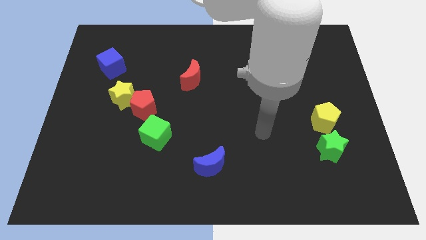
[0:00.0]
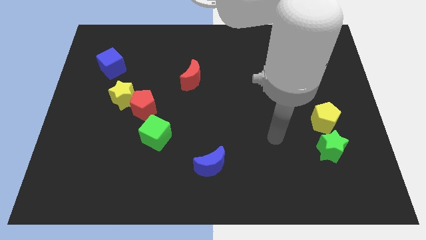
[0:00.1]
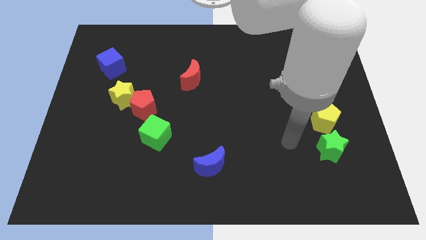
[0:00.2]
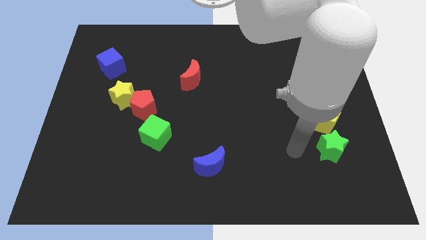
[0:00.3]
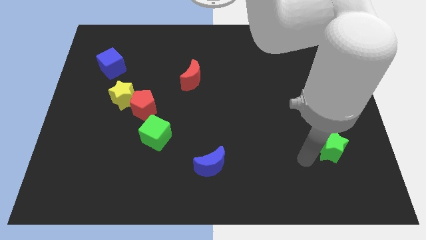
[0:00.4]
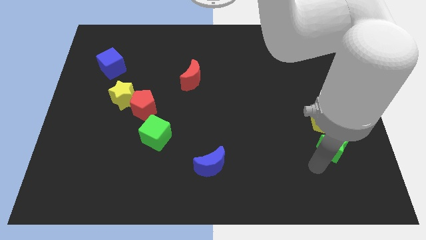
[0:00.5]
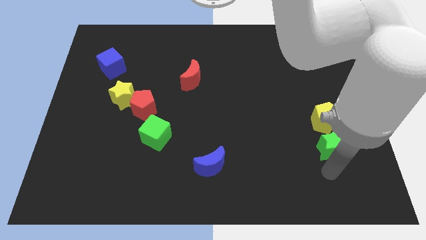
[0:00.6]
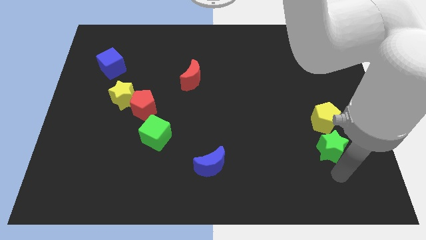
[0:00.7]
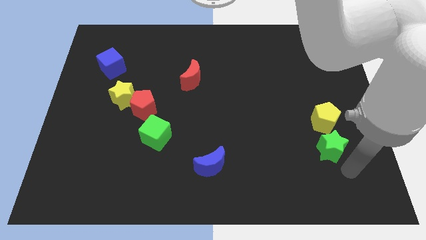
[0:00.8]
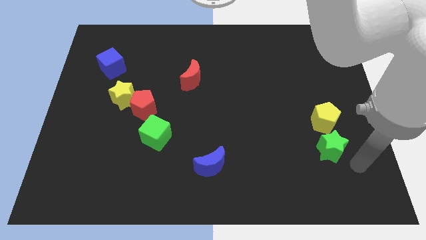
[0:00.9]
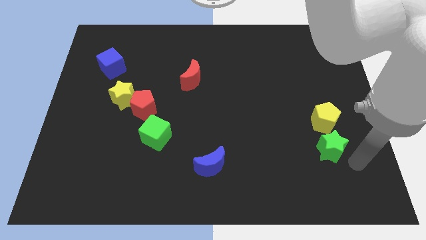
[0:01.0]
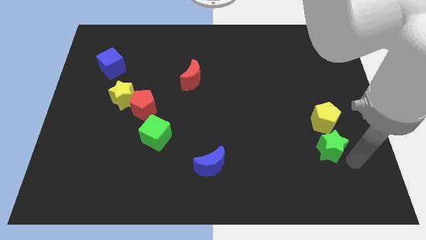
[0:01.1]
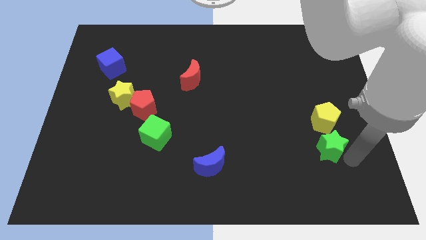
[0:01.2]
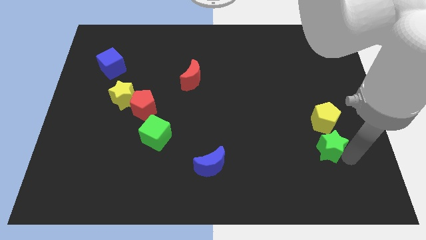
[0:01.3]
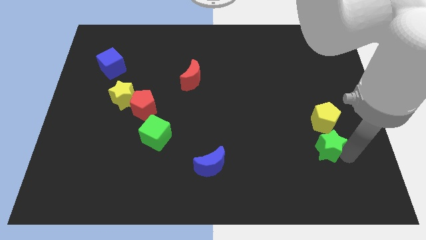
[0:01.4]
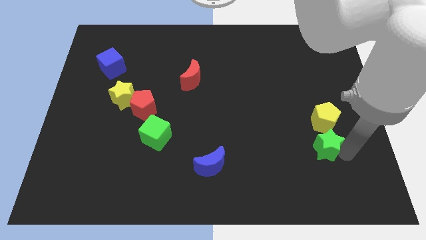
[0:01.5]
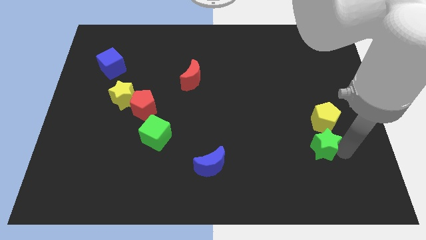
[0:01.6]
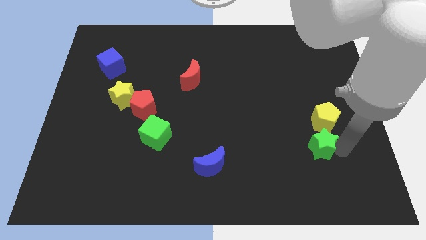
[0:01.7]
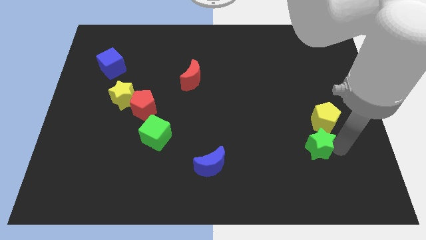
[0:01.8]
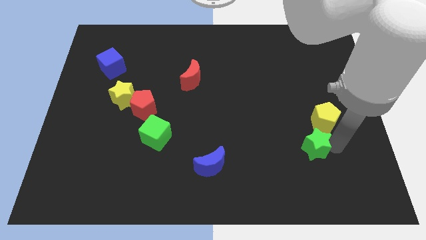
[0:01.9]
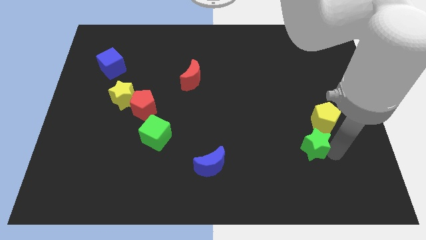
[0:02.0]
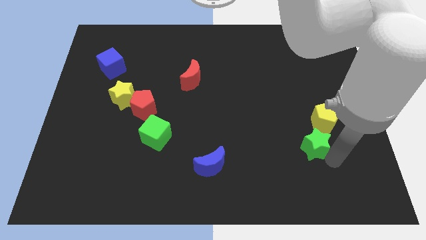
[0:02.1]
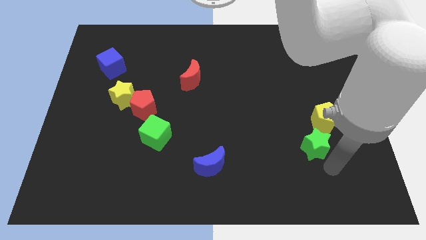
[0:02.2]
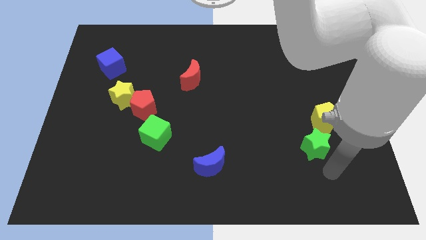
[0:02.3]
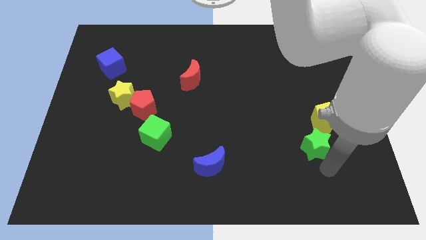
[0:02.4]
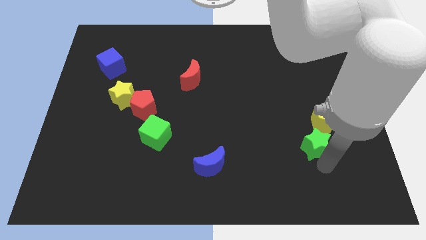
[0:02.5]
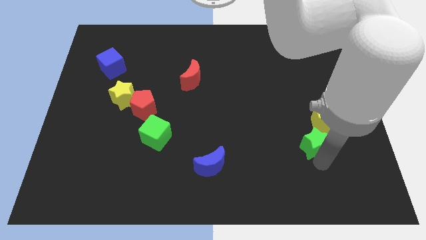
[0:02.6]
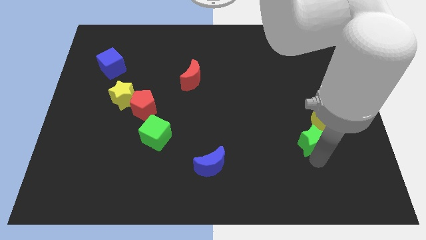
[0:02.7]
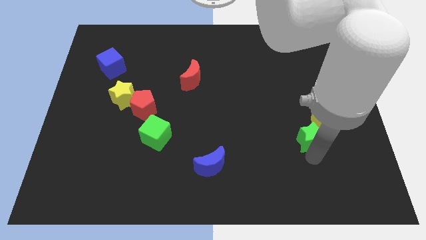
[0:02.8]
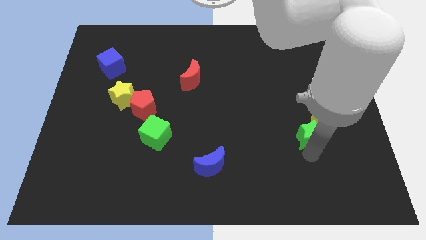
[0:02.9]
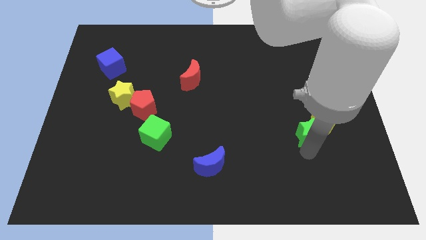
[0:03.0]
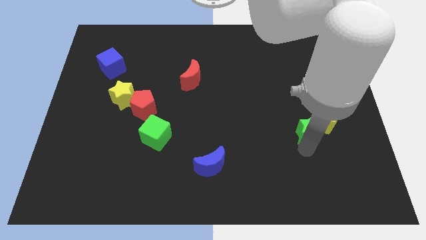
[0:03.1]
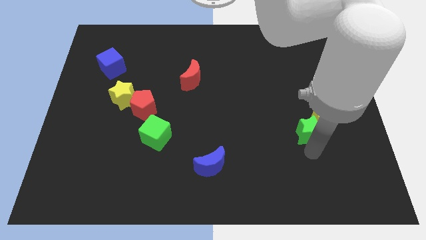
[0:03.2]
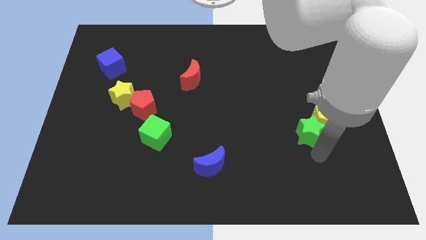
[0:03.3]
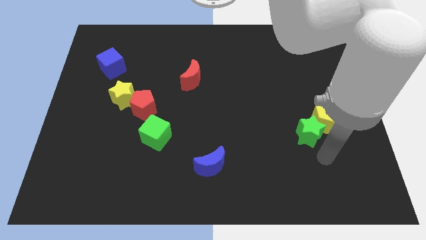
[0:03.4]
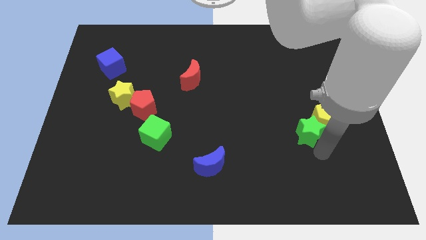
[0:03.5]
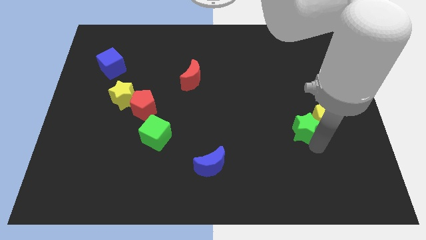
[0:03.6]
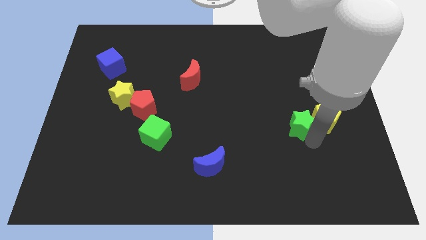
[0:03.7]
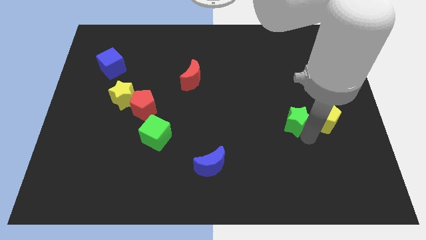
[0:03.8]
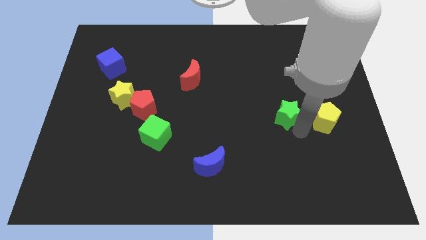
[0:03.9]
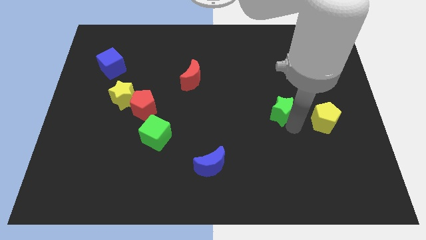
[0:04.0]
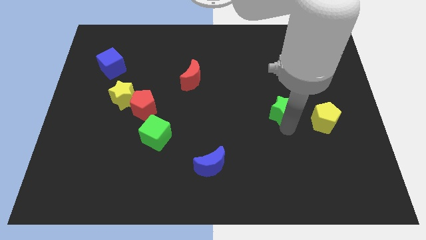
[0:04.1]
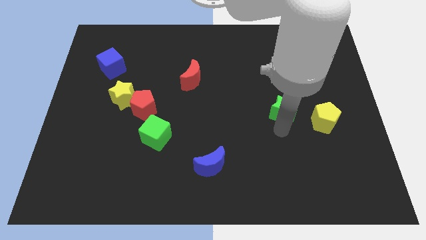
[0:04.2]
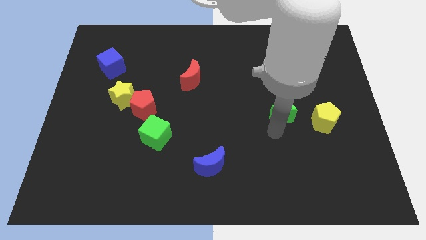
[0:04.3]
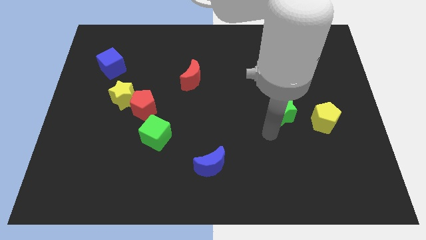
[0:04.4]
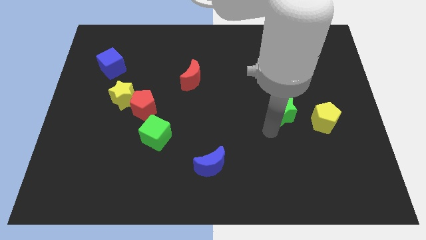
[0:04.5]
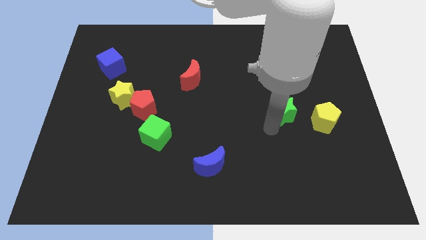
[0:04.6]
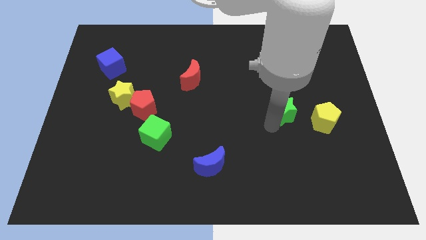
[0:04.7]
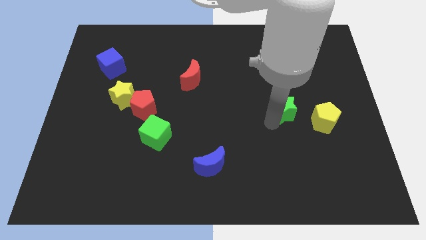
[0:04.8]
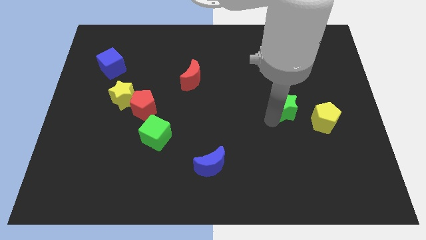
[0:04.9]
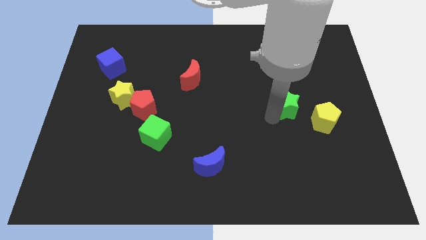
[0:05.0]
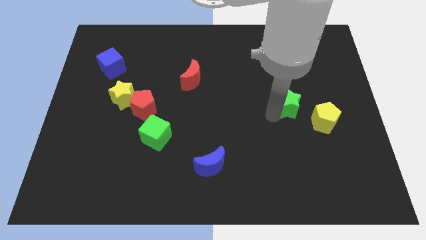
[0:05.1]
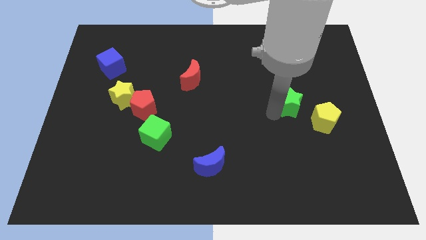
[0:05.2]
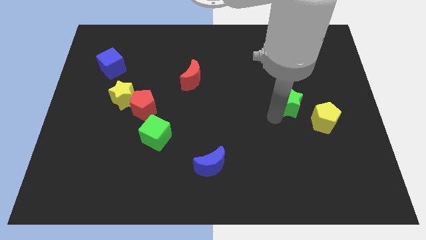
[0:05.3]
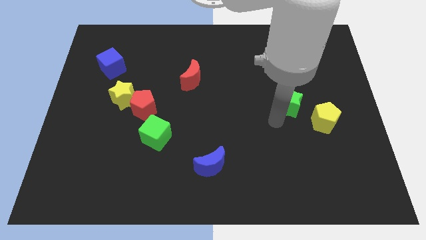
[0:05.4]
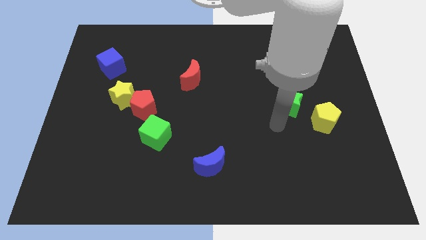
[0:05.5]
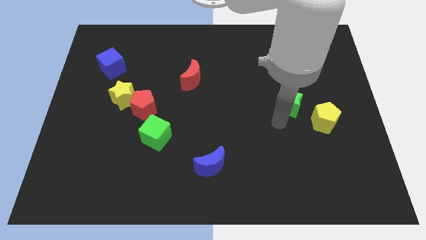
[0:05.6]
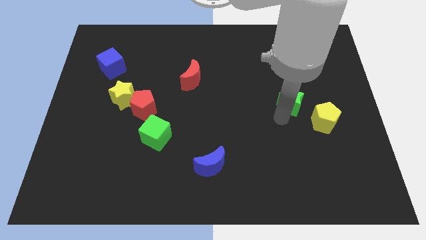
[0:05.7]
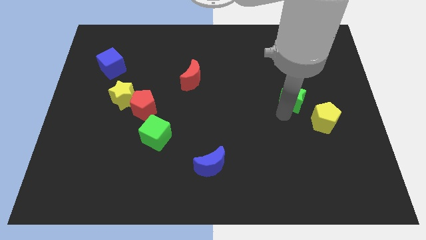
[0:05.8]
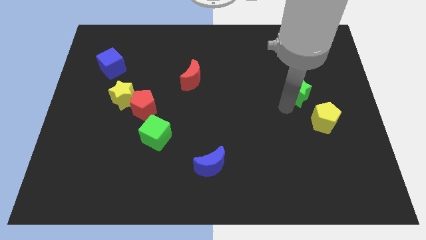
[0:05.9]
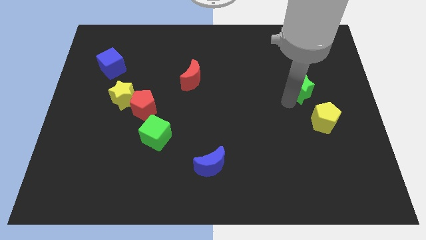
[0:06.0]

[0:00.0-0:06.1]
put the green star to the top of the yellow pentagon
